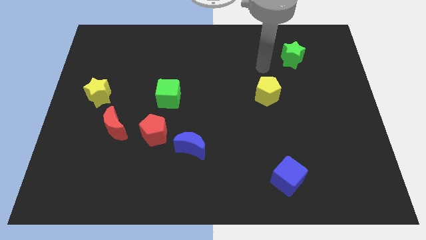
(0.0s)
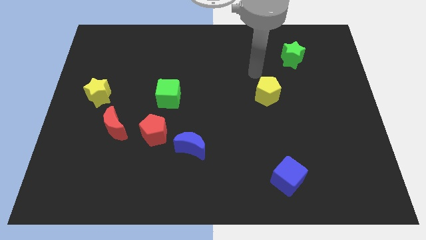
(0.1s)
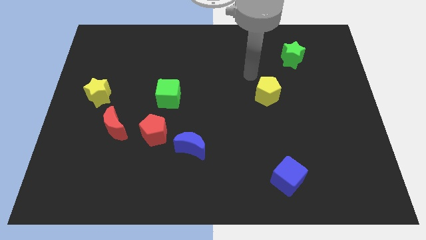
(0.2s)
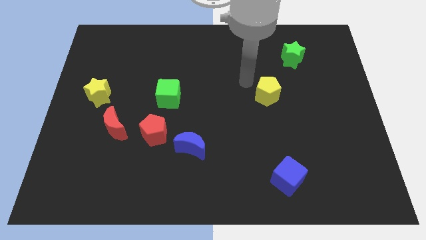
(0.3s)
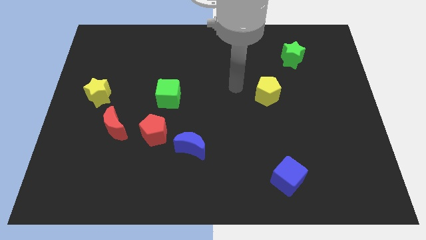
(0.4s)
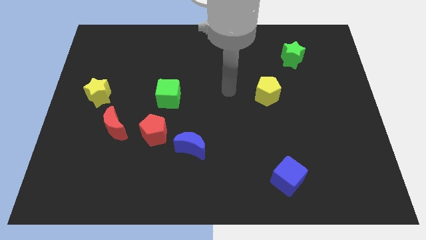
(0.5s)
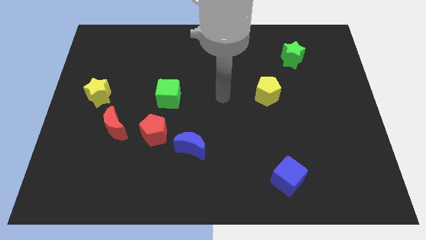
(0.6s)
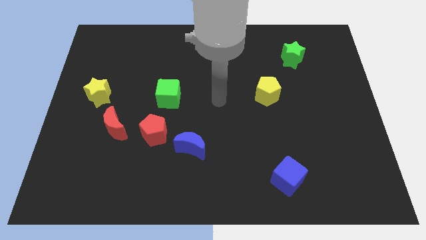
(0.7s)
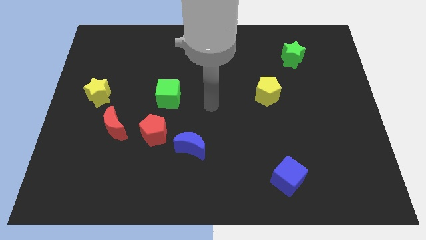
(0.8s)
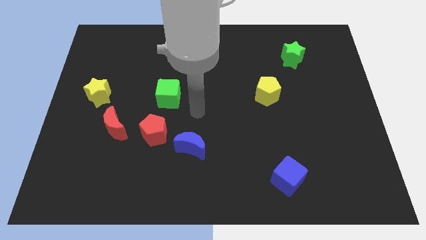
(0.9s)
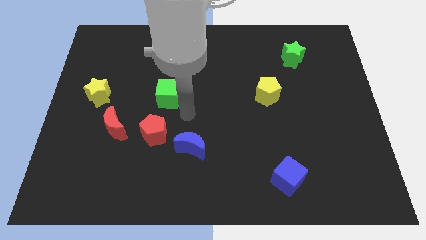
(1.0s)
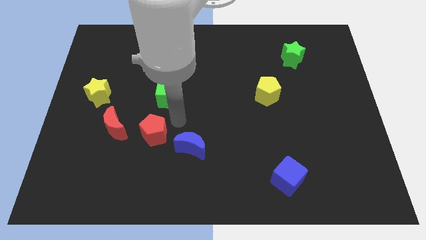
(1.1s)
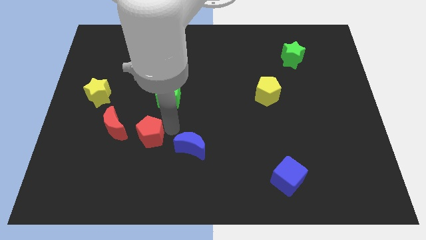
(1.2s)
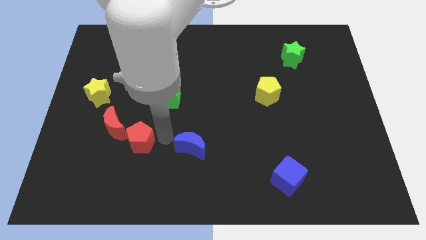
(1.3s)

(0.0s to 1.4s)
pull the blue moon apart from the red pentagon

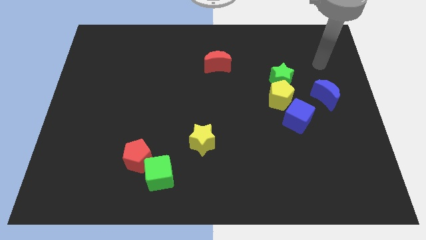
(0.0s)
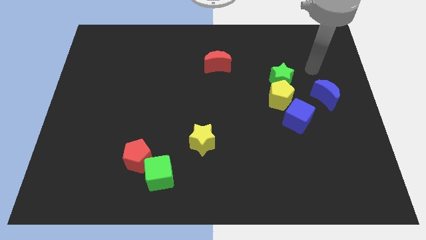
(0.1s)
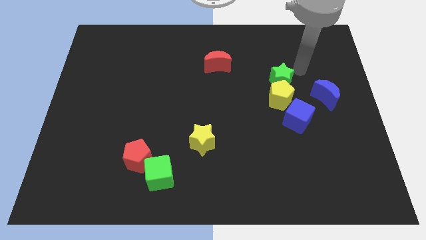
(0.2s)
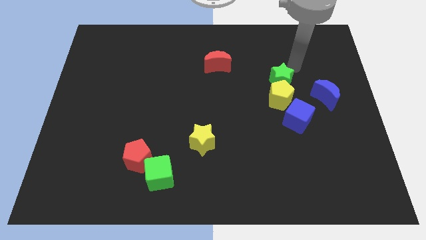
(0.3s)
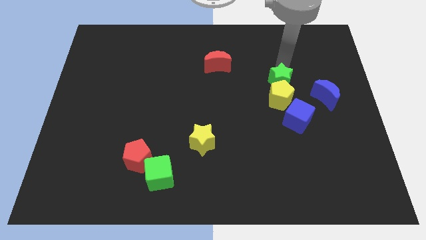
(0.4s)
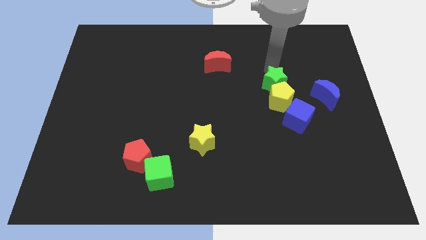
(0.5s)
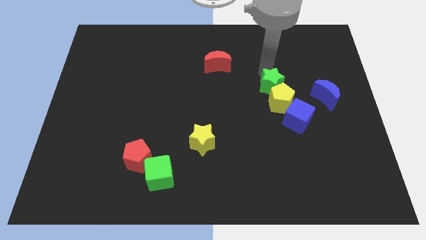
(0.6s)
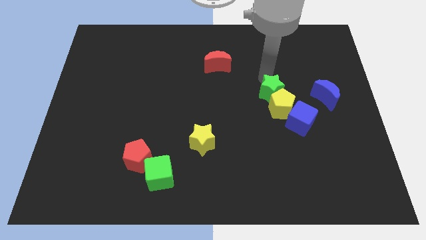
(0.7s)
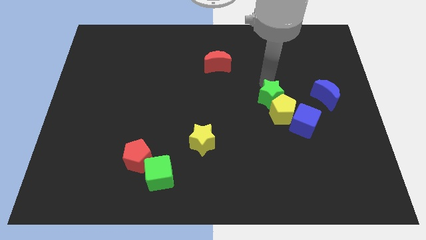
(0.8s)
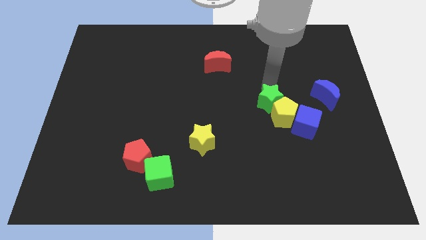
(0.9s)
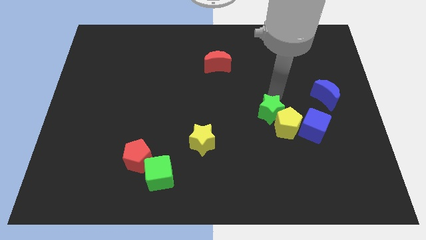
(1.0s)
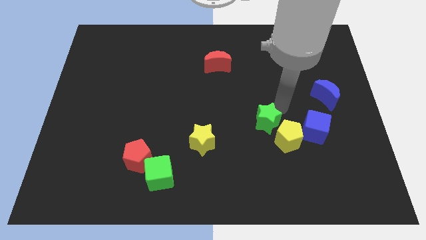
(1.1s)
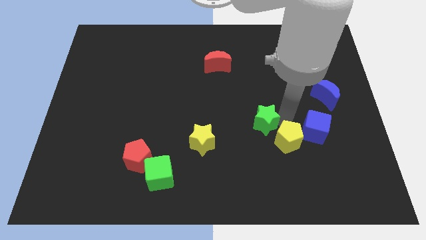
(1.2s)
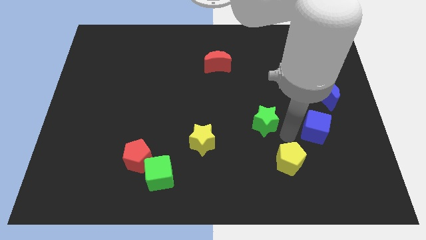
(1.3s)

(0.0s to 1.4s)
separate the green star from the yellow pentagon

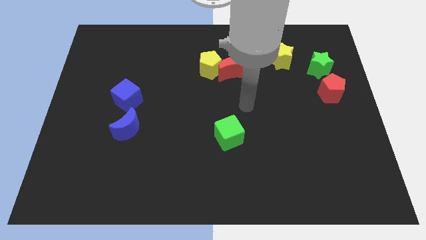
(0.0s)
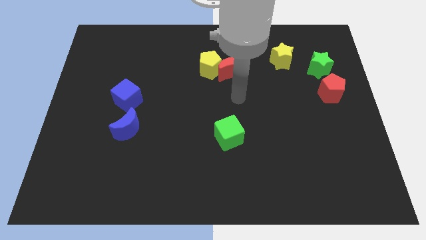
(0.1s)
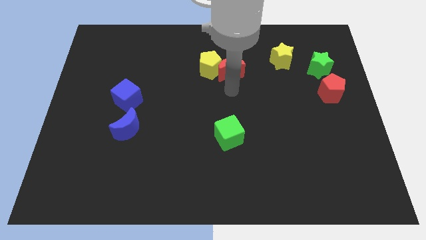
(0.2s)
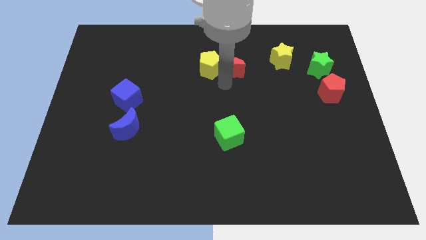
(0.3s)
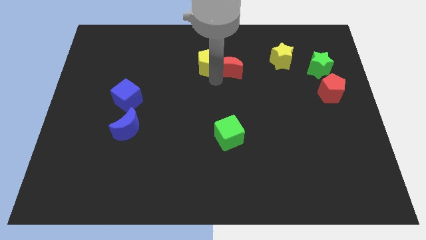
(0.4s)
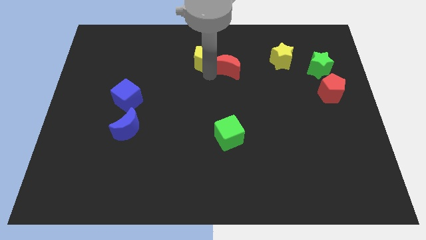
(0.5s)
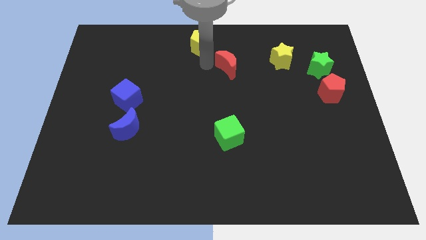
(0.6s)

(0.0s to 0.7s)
move the red moon away from the yellow pentagon

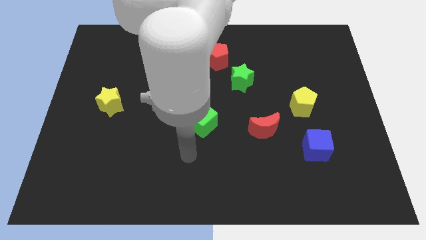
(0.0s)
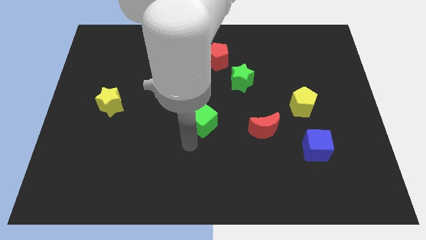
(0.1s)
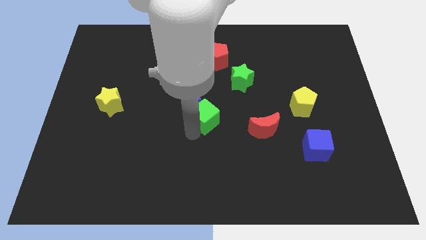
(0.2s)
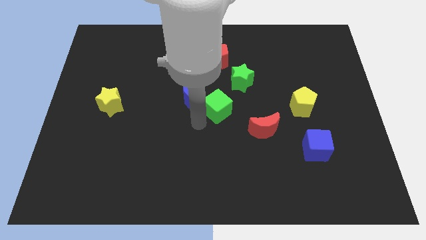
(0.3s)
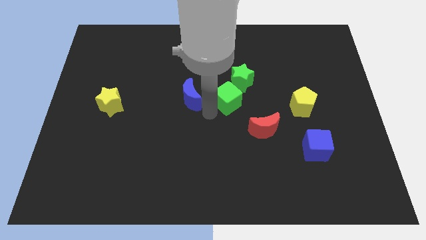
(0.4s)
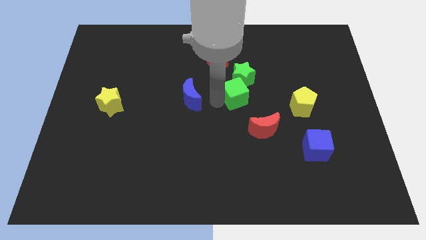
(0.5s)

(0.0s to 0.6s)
pull the blue moon apart from the green cube

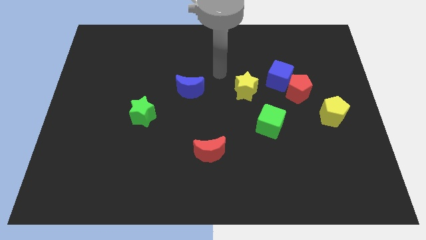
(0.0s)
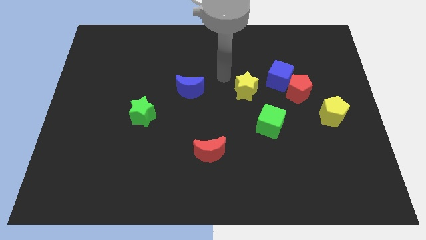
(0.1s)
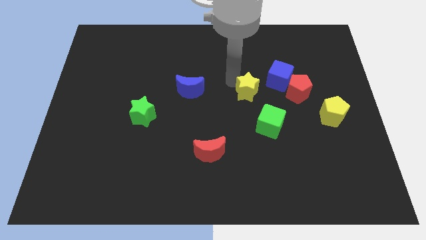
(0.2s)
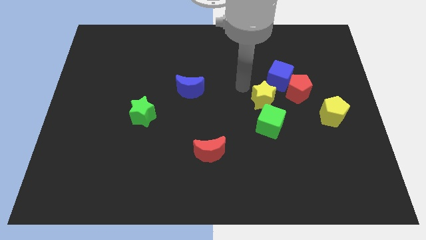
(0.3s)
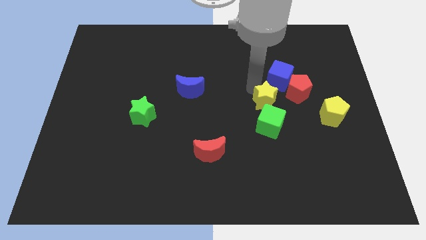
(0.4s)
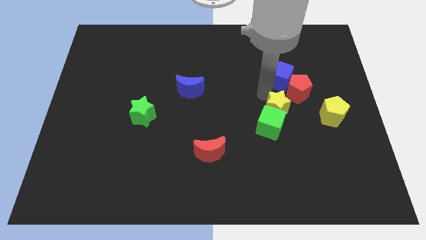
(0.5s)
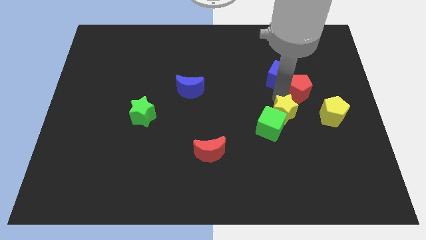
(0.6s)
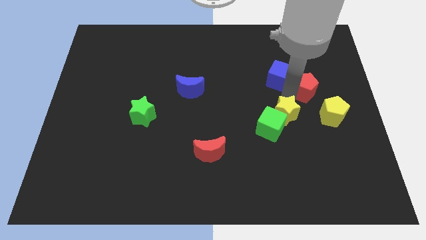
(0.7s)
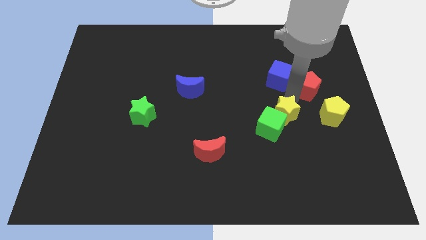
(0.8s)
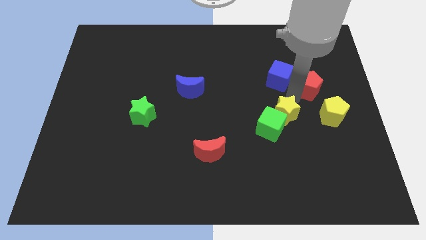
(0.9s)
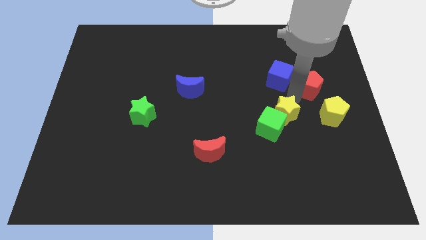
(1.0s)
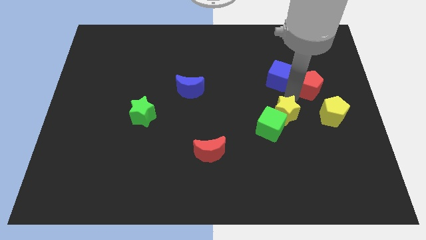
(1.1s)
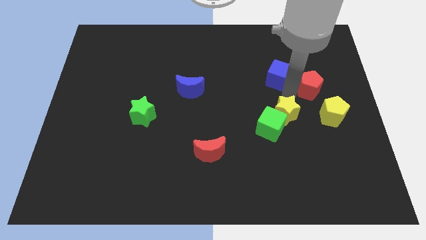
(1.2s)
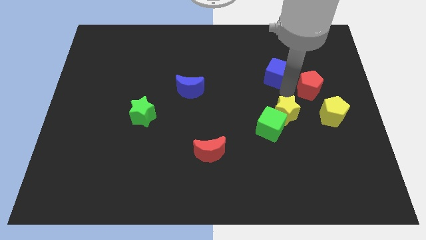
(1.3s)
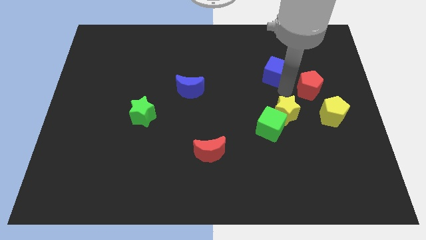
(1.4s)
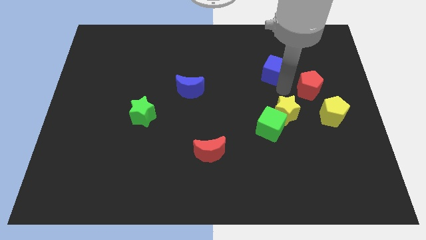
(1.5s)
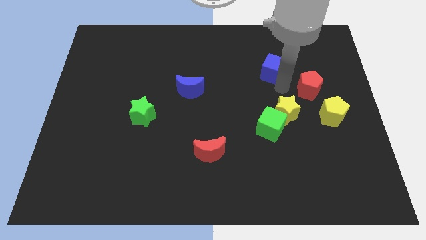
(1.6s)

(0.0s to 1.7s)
separate the blue cube from the red pentagon and yellow star

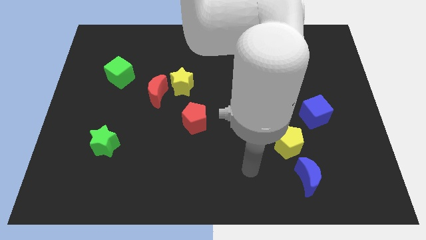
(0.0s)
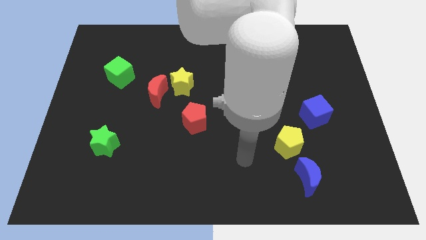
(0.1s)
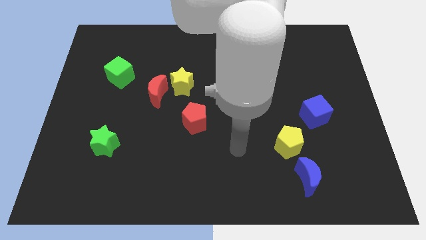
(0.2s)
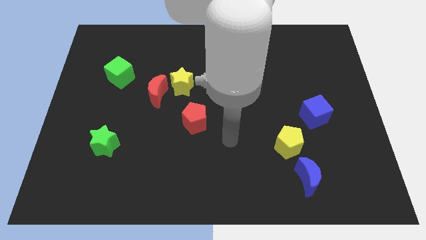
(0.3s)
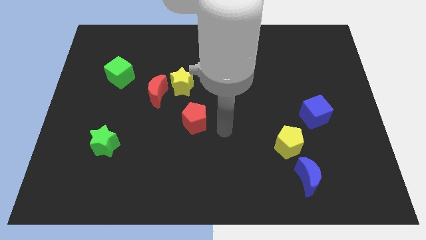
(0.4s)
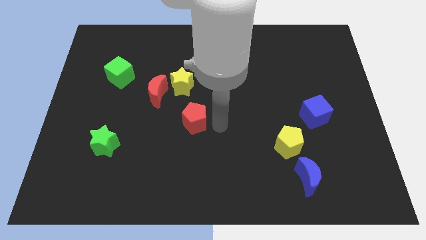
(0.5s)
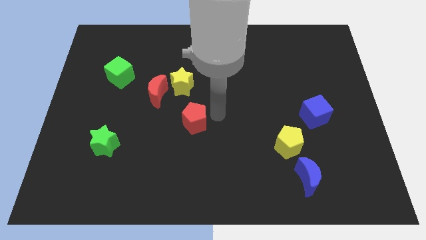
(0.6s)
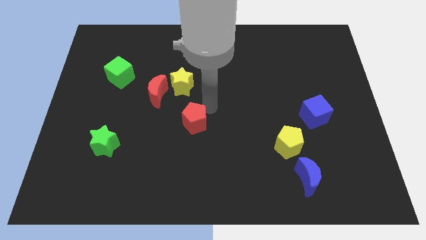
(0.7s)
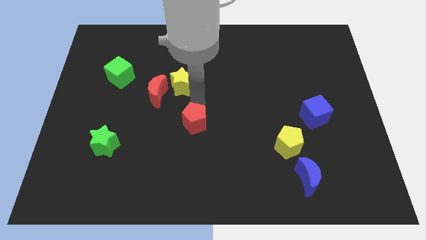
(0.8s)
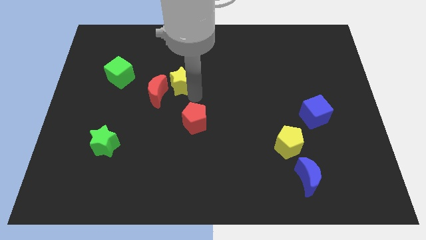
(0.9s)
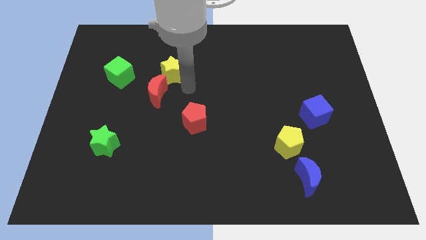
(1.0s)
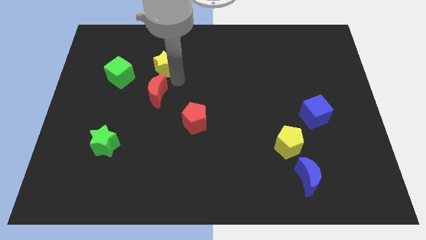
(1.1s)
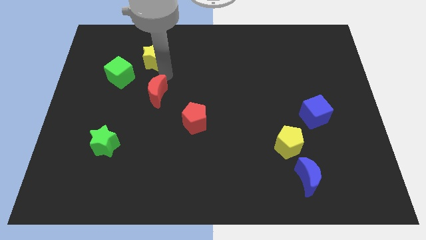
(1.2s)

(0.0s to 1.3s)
move the red moon away from the yellow star

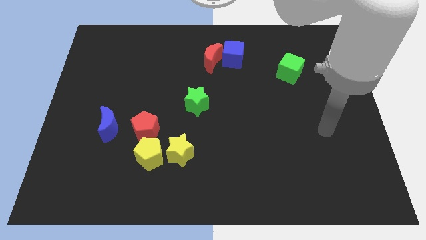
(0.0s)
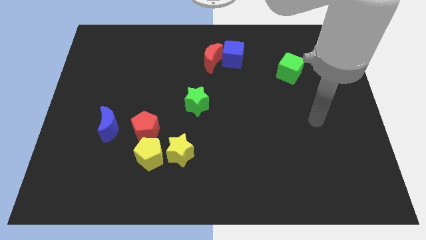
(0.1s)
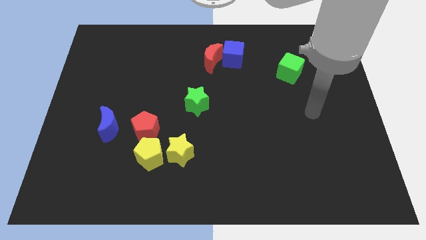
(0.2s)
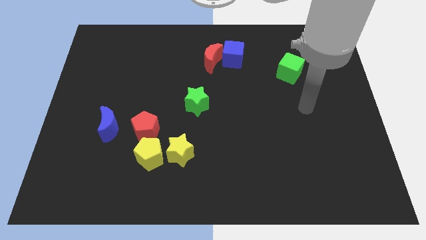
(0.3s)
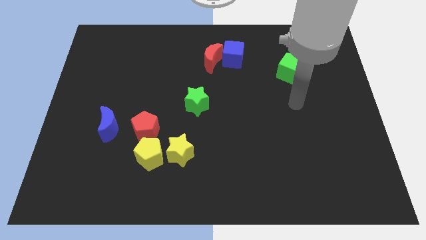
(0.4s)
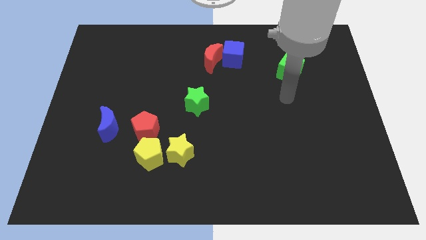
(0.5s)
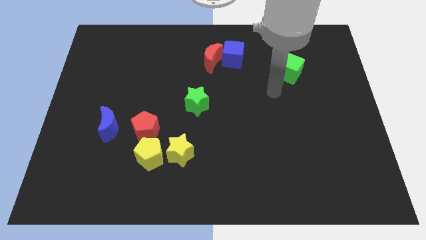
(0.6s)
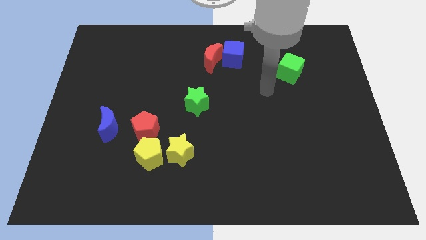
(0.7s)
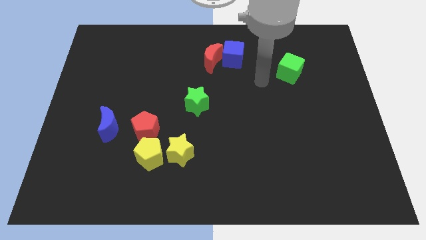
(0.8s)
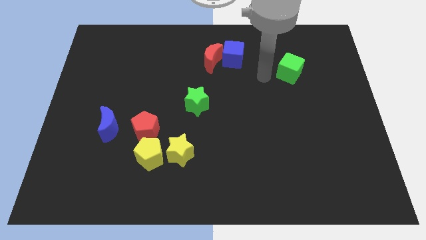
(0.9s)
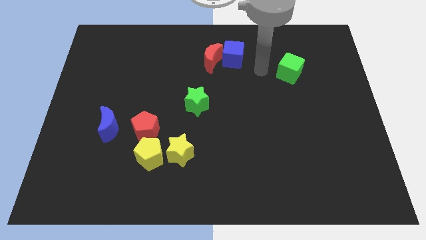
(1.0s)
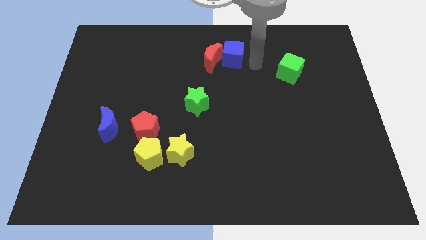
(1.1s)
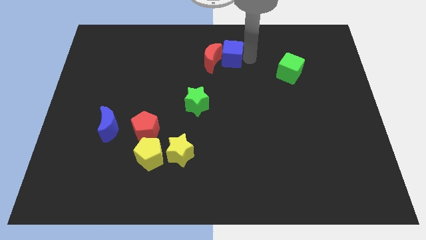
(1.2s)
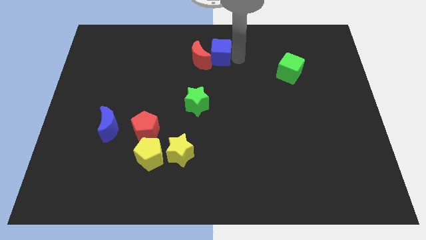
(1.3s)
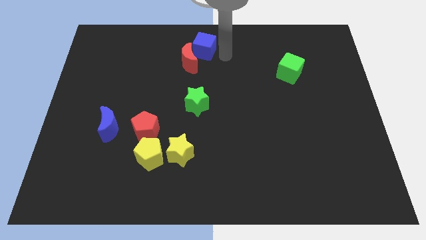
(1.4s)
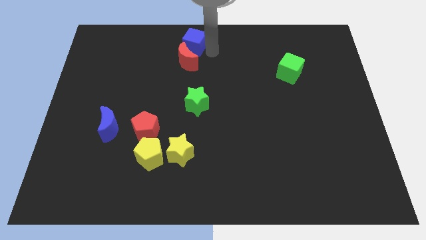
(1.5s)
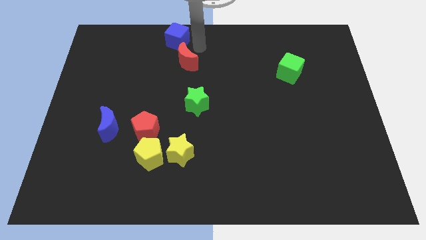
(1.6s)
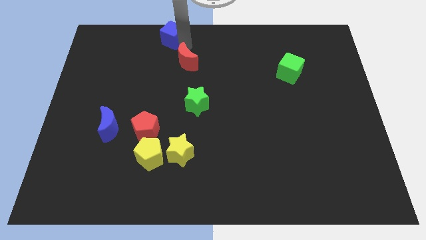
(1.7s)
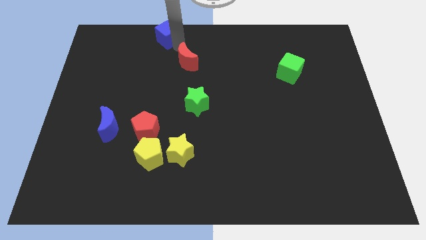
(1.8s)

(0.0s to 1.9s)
pull the red moon apart from the blue cube

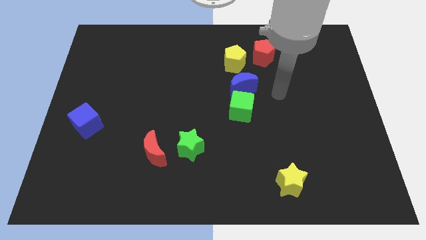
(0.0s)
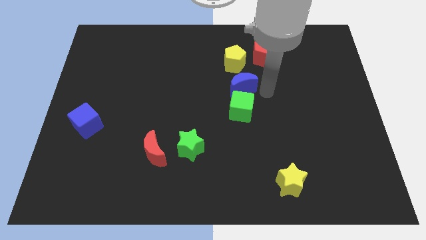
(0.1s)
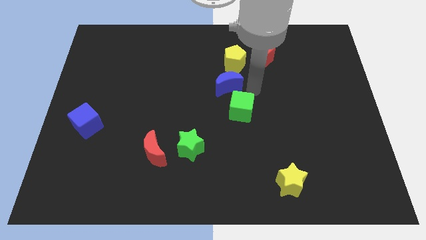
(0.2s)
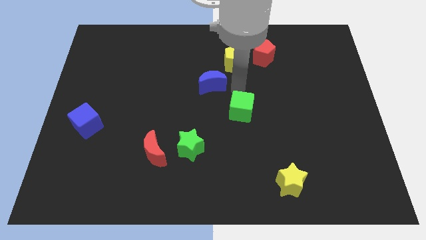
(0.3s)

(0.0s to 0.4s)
move the green cube away from the blue moon
